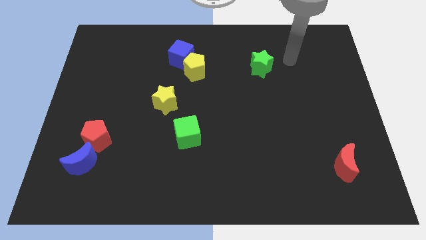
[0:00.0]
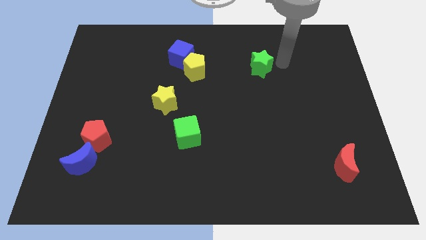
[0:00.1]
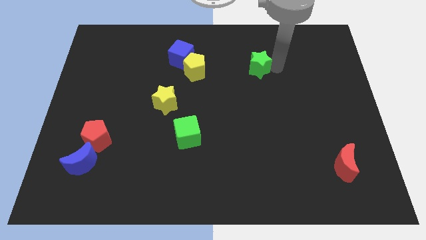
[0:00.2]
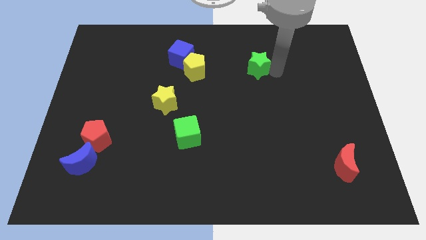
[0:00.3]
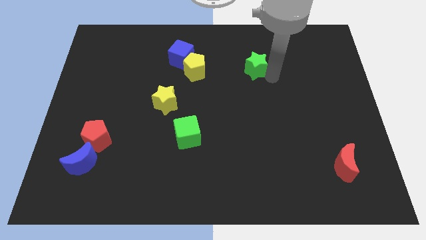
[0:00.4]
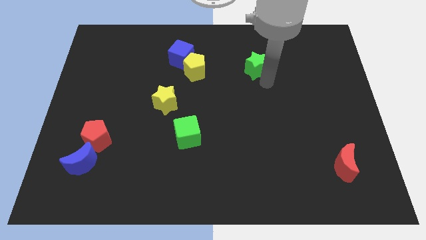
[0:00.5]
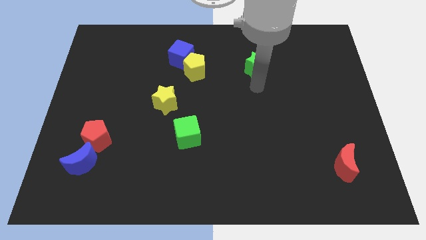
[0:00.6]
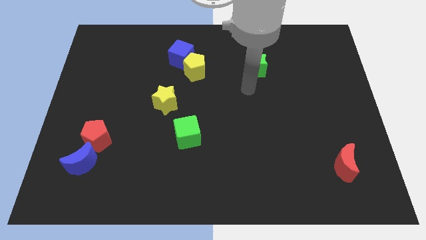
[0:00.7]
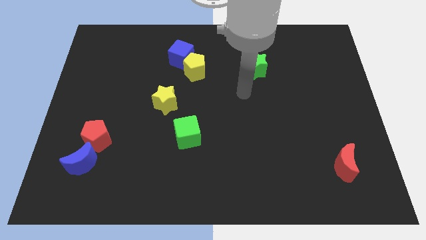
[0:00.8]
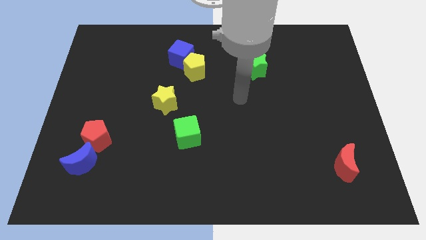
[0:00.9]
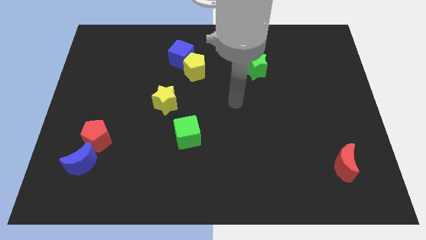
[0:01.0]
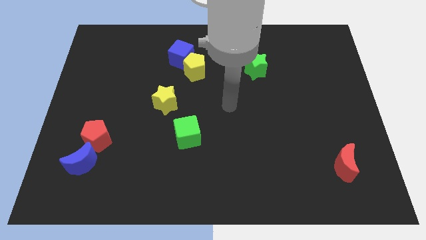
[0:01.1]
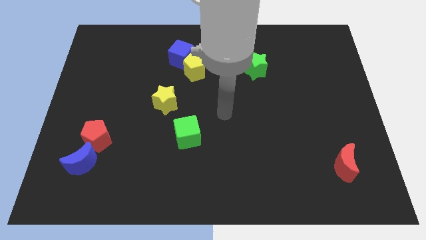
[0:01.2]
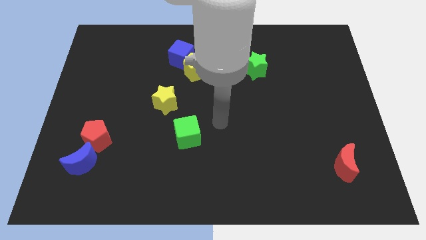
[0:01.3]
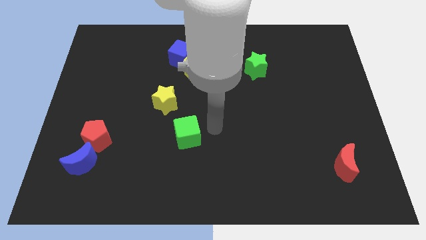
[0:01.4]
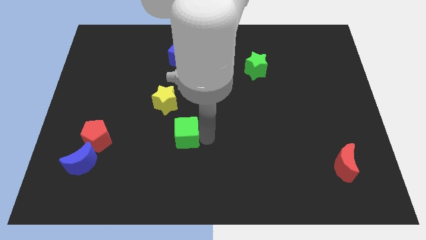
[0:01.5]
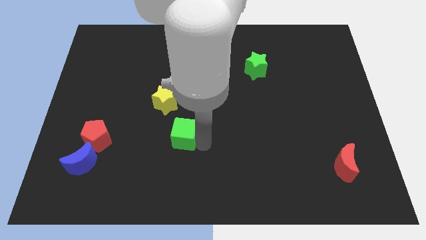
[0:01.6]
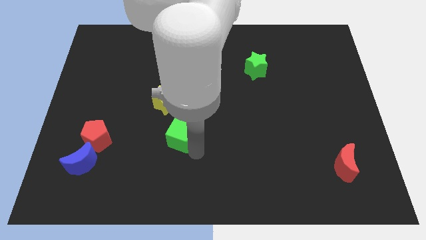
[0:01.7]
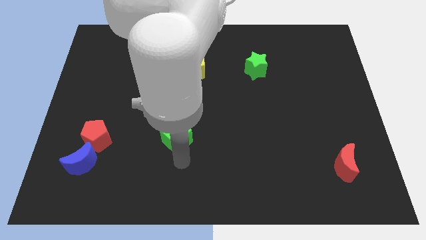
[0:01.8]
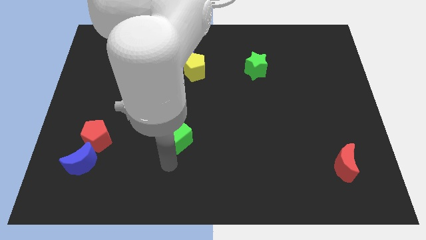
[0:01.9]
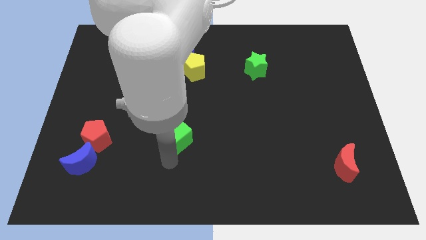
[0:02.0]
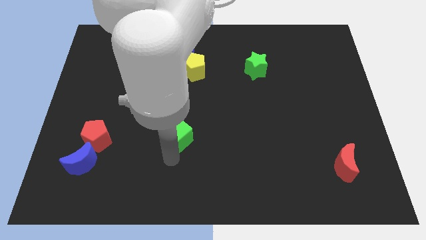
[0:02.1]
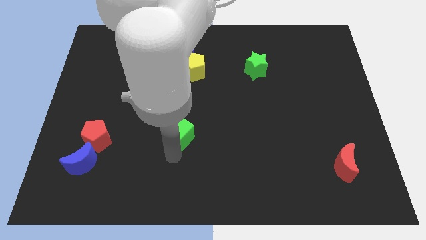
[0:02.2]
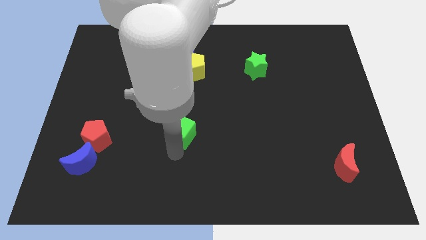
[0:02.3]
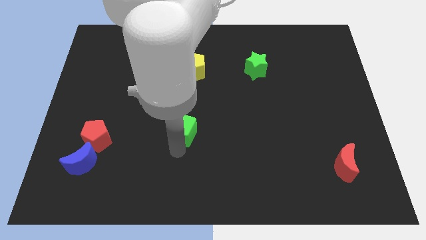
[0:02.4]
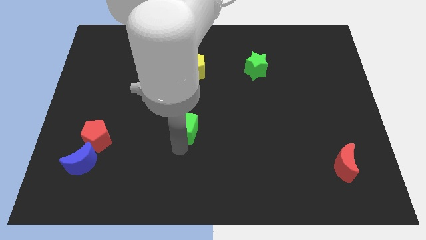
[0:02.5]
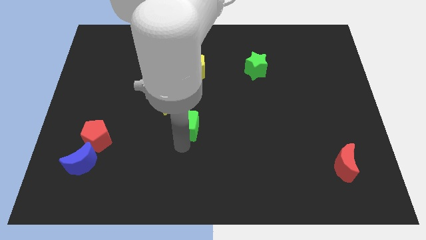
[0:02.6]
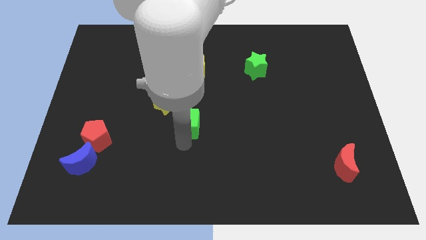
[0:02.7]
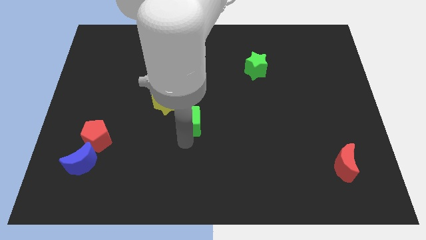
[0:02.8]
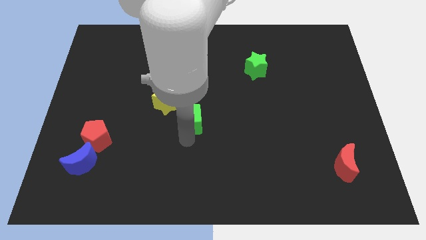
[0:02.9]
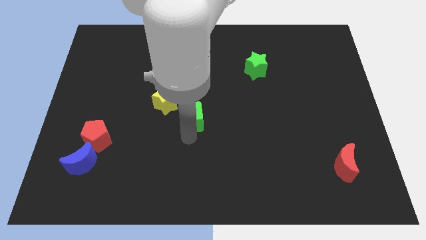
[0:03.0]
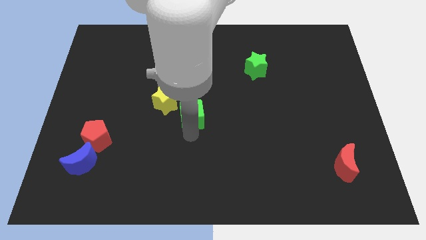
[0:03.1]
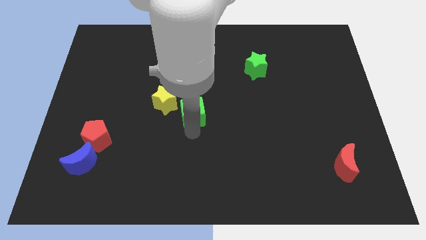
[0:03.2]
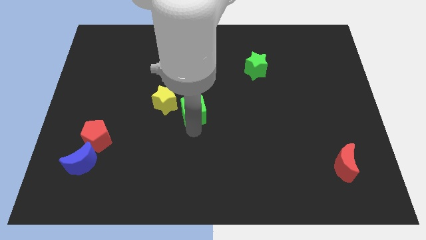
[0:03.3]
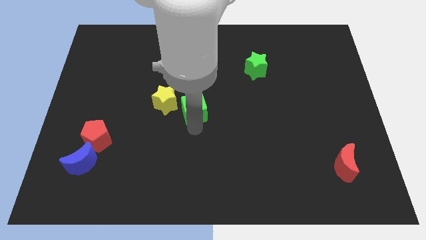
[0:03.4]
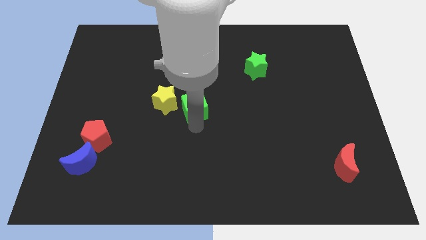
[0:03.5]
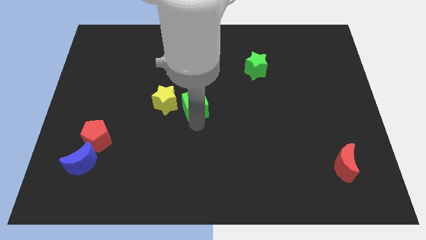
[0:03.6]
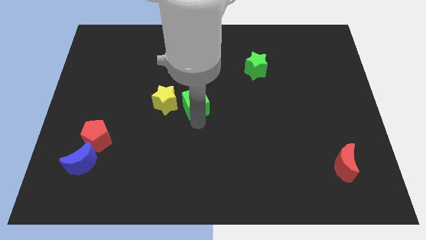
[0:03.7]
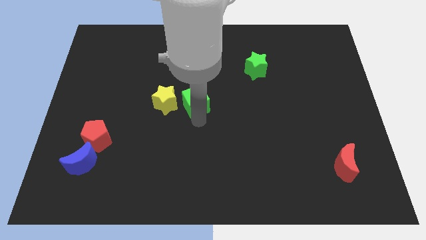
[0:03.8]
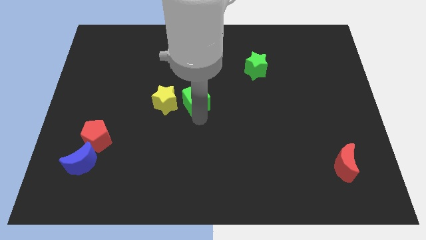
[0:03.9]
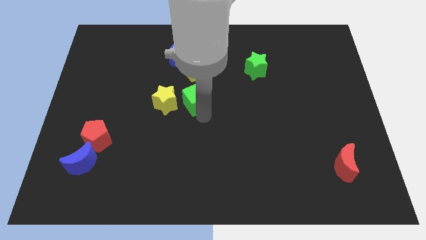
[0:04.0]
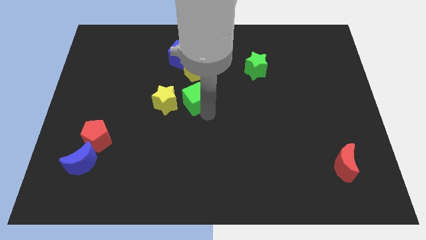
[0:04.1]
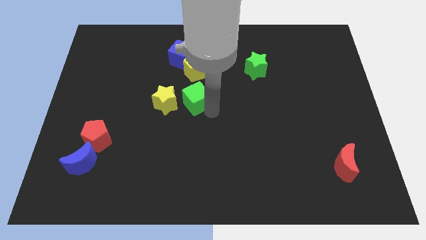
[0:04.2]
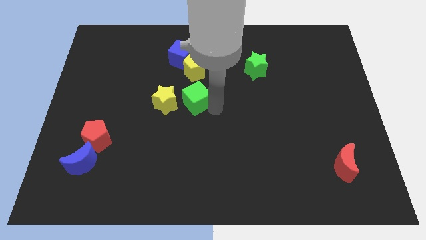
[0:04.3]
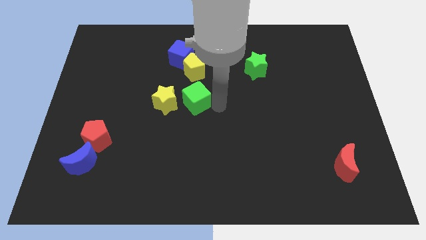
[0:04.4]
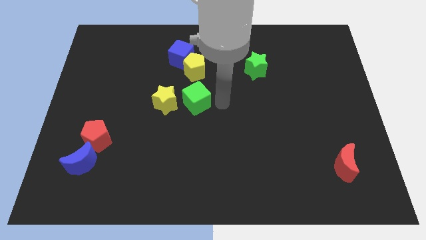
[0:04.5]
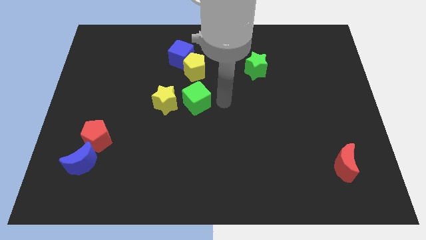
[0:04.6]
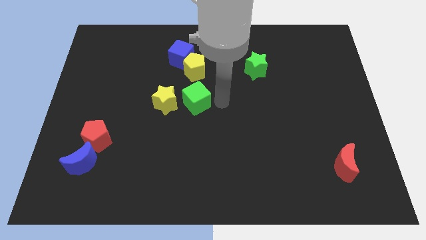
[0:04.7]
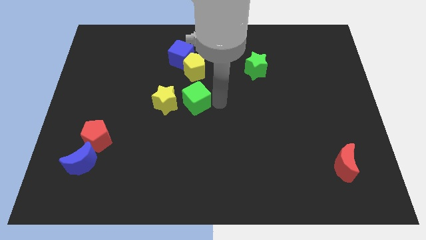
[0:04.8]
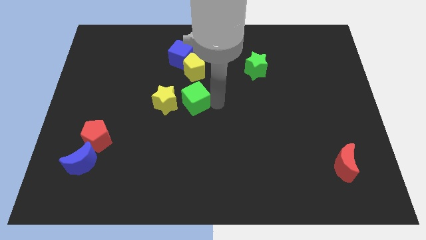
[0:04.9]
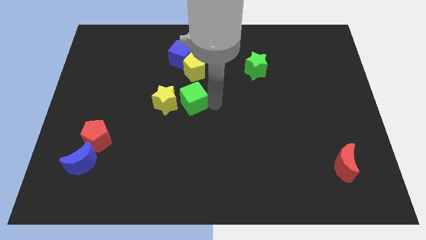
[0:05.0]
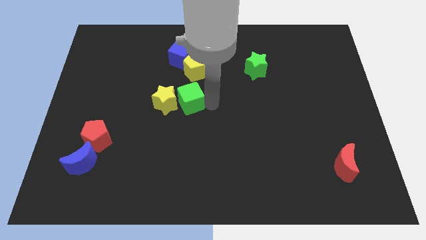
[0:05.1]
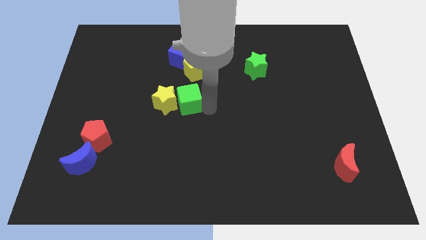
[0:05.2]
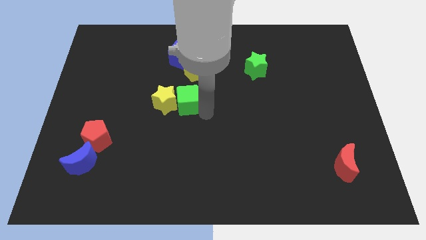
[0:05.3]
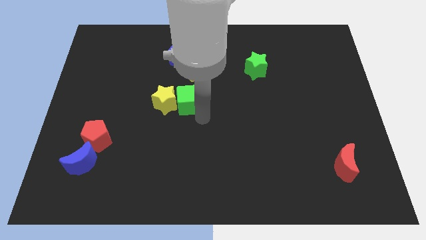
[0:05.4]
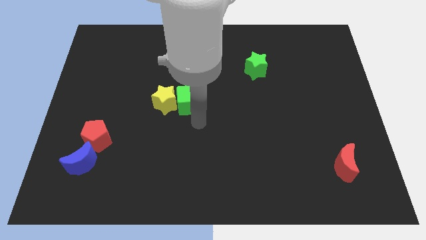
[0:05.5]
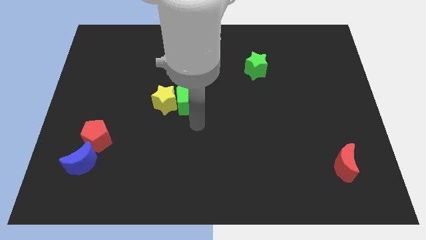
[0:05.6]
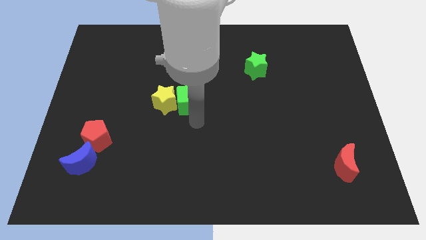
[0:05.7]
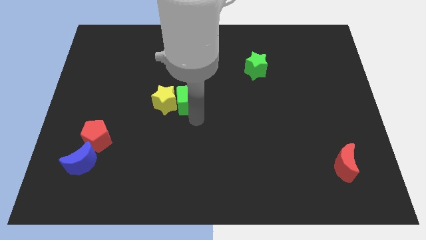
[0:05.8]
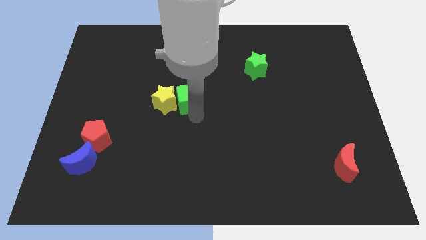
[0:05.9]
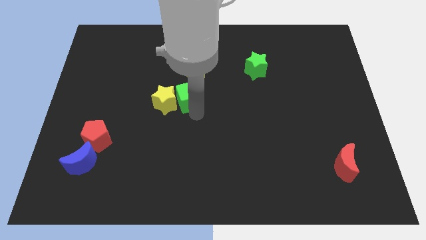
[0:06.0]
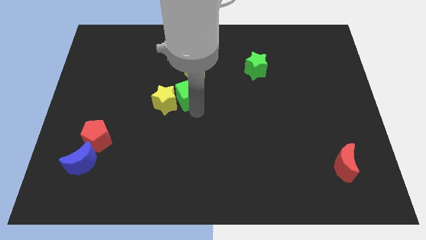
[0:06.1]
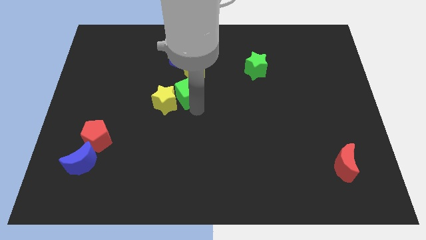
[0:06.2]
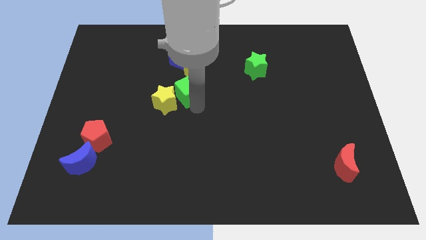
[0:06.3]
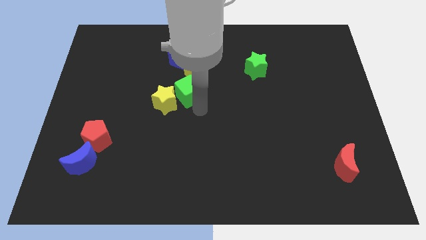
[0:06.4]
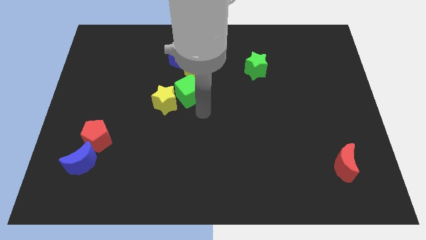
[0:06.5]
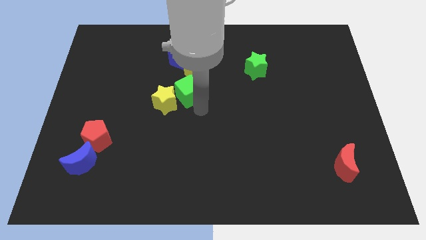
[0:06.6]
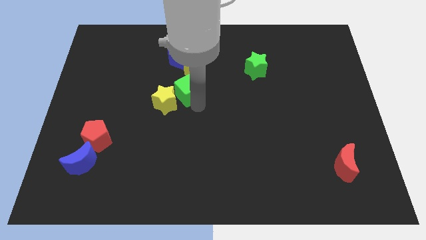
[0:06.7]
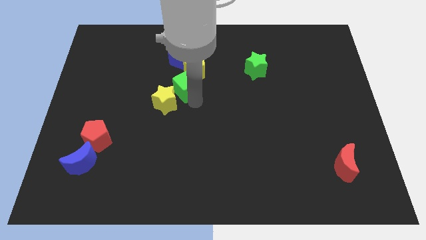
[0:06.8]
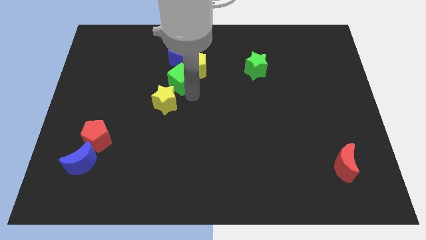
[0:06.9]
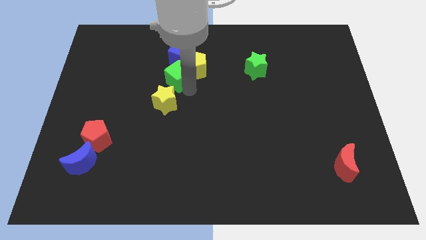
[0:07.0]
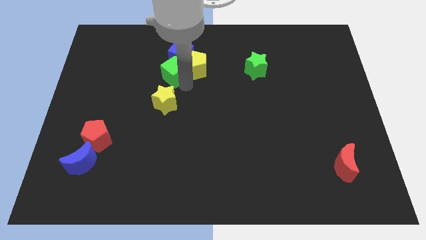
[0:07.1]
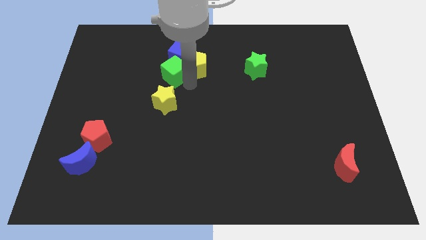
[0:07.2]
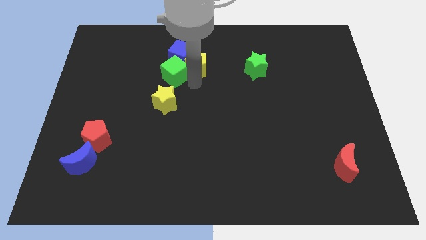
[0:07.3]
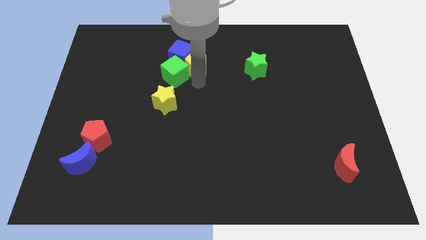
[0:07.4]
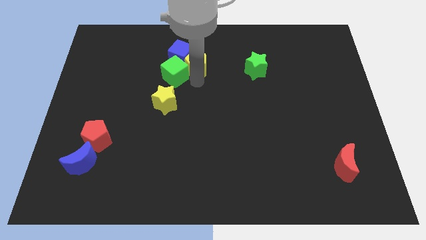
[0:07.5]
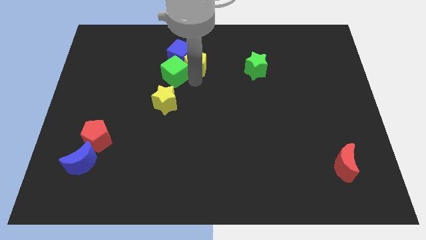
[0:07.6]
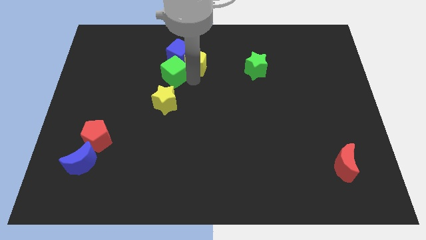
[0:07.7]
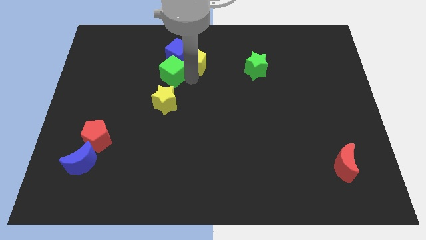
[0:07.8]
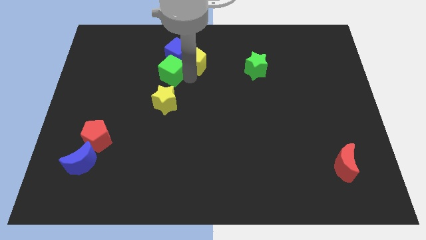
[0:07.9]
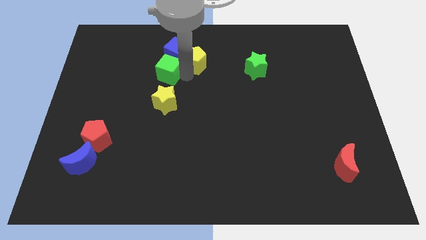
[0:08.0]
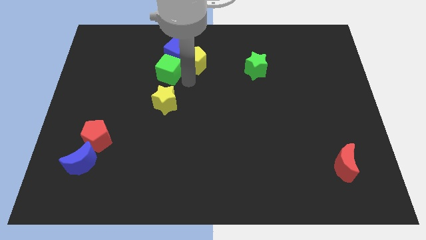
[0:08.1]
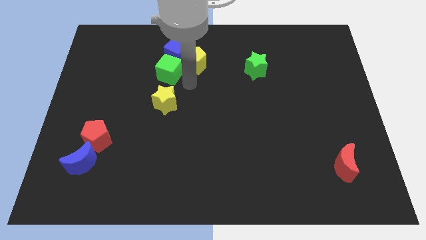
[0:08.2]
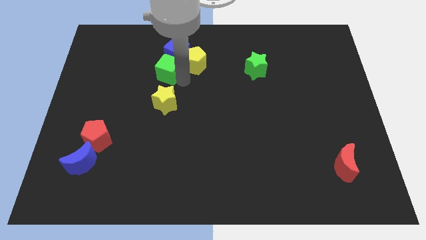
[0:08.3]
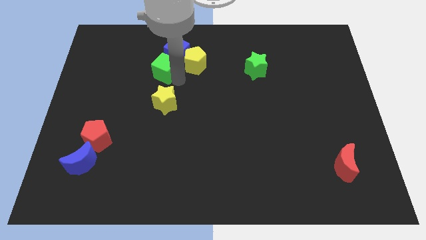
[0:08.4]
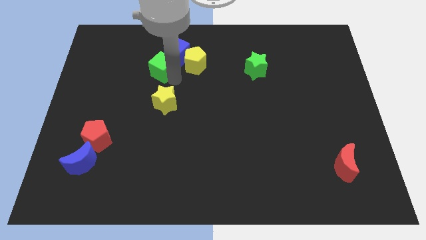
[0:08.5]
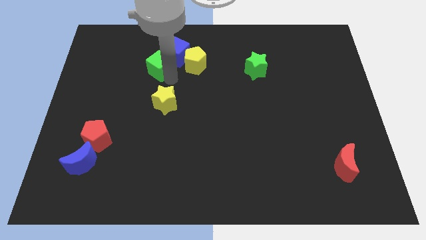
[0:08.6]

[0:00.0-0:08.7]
move the green cube just left of the blue cube
